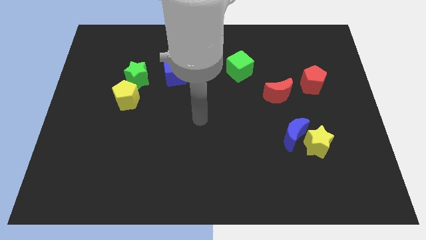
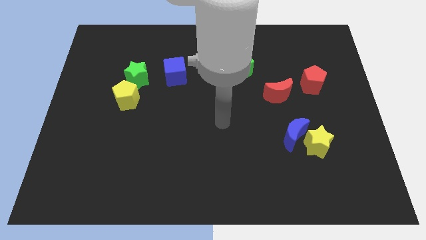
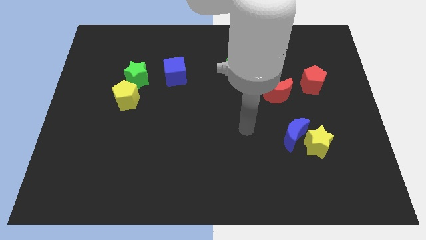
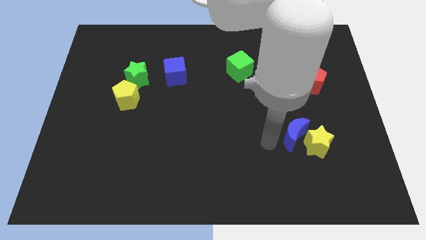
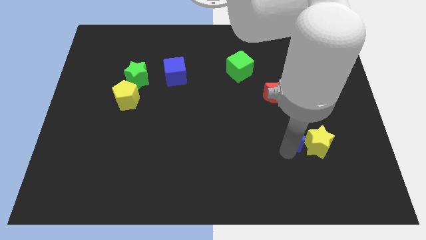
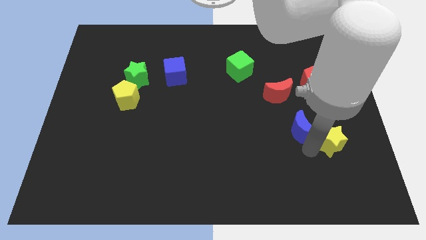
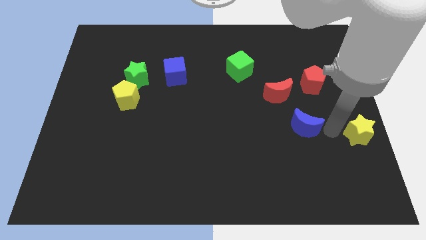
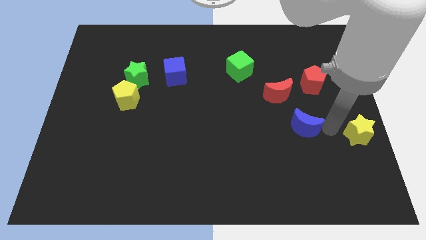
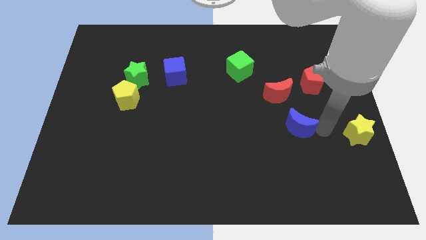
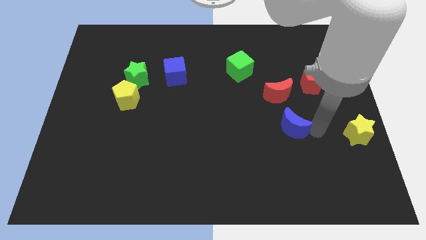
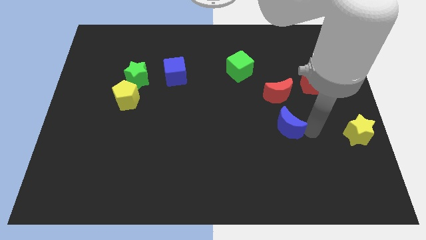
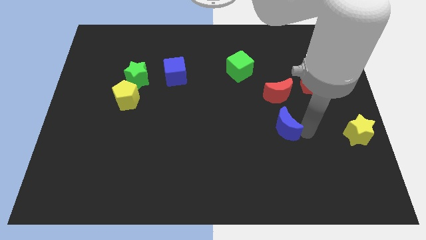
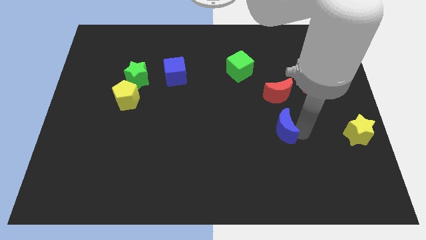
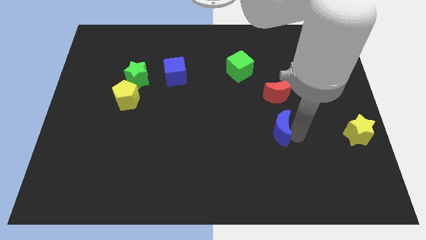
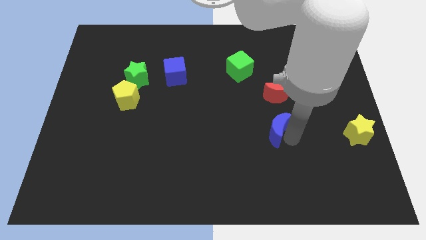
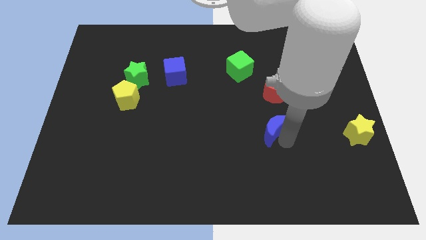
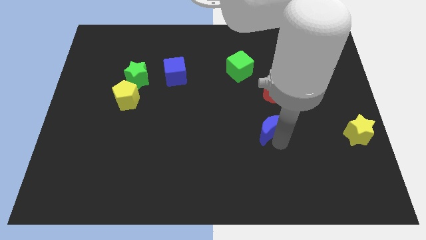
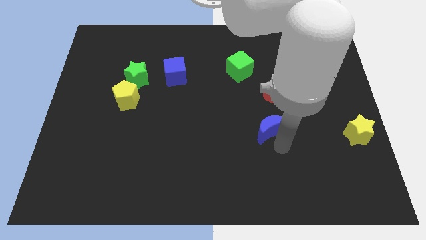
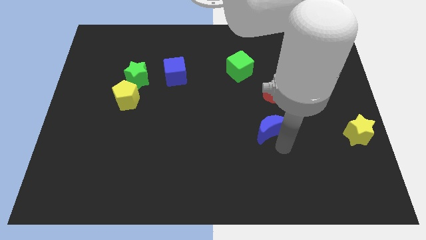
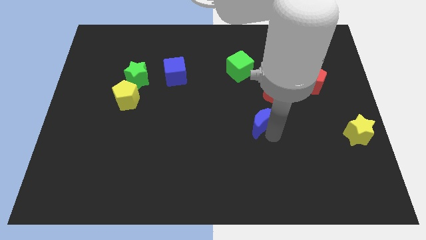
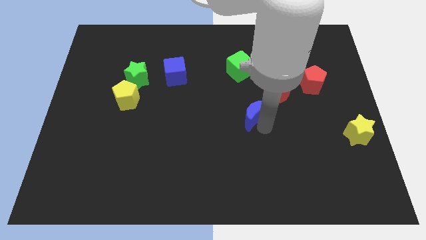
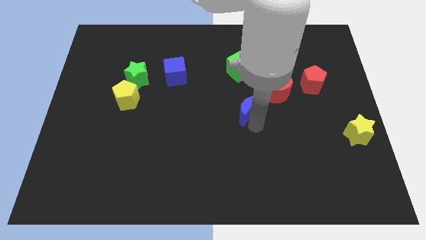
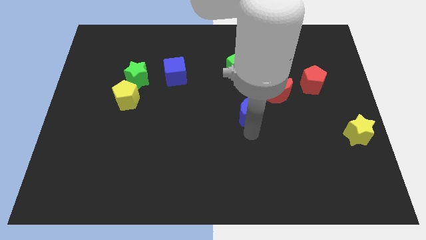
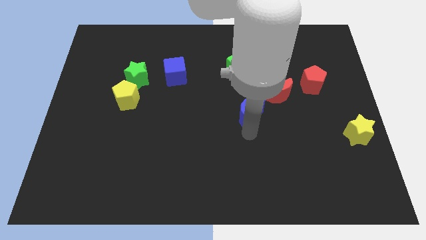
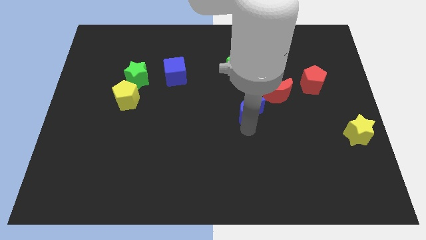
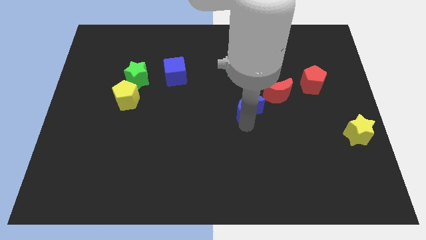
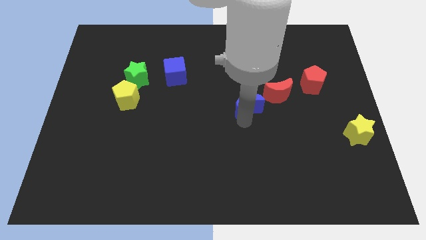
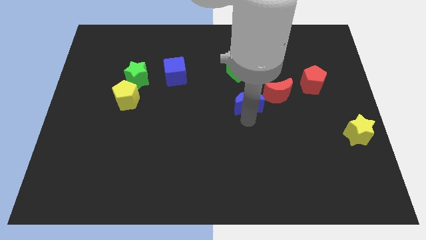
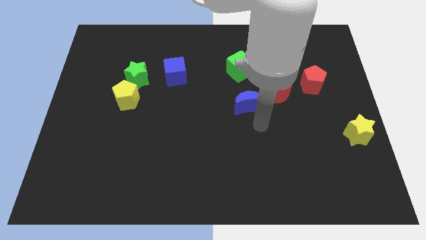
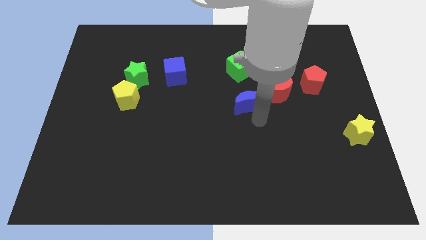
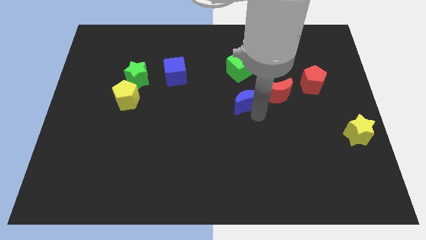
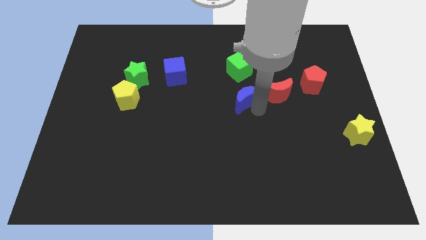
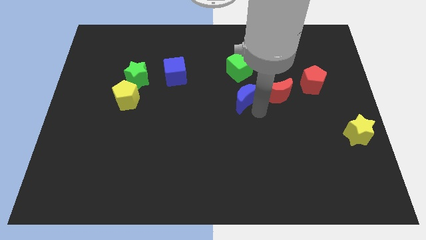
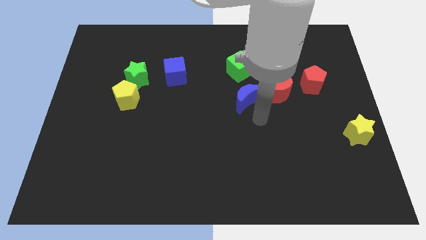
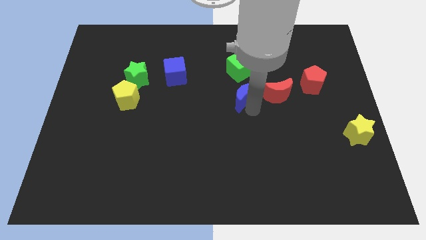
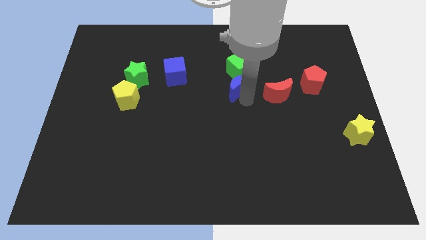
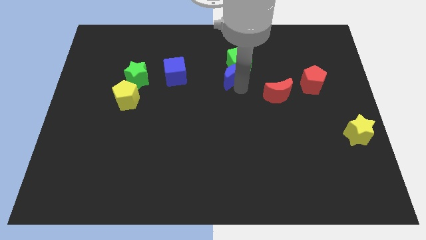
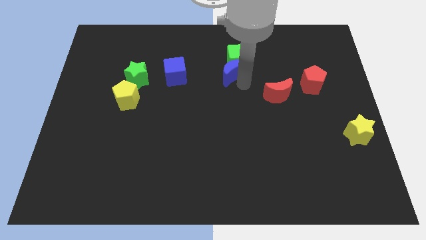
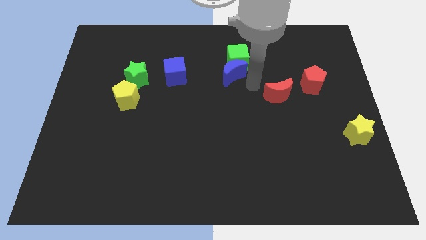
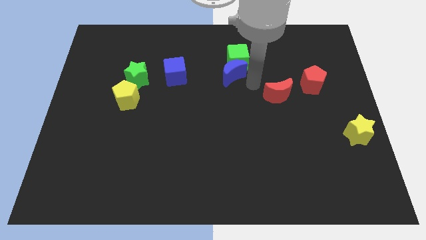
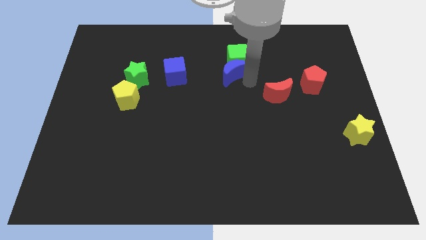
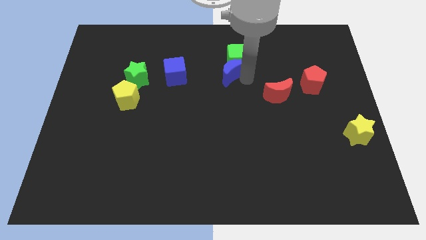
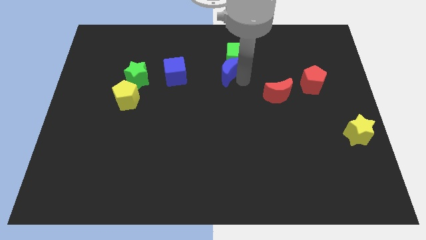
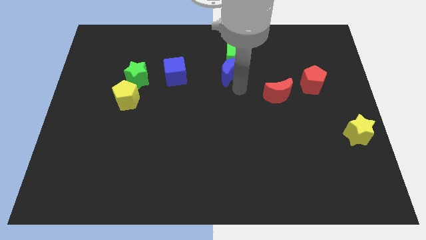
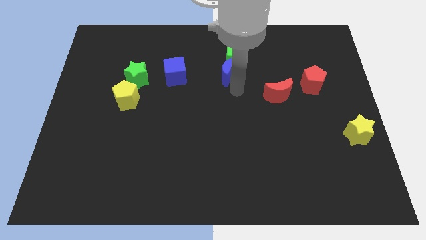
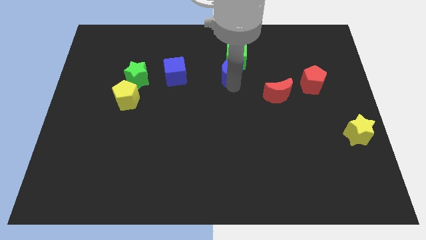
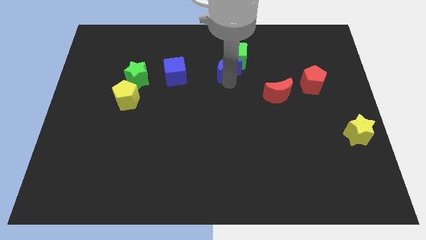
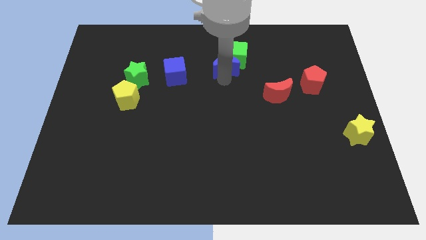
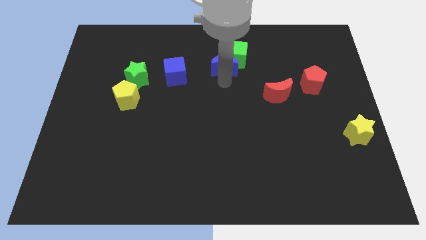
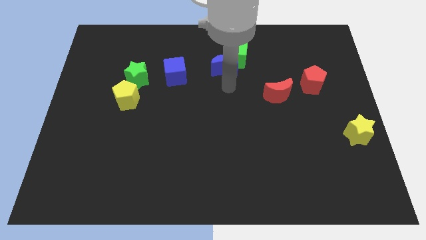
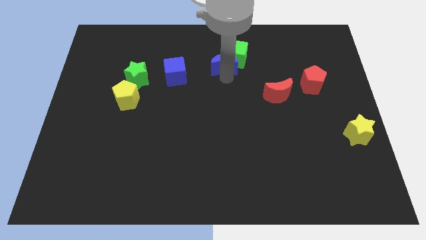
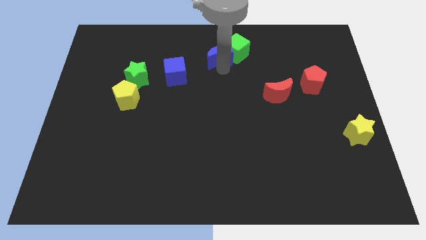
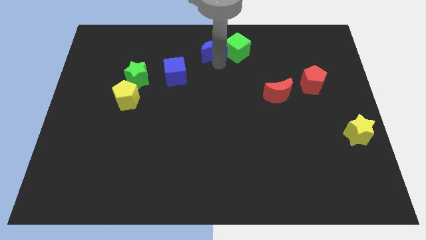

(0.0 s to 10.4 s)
slide the blue moon to the top
